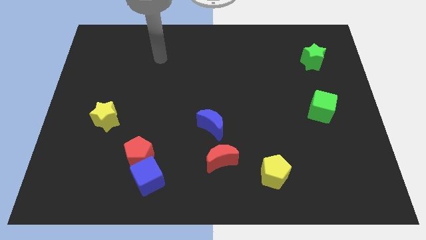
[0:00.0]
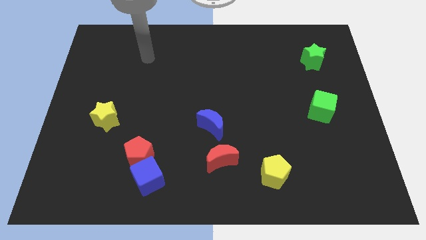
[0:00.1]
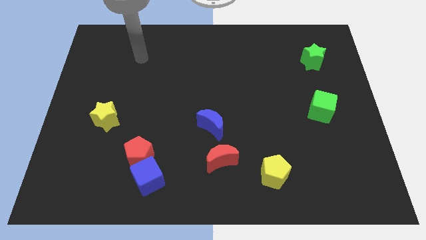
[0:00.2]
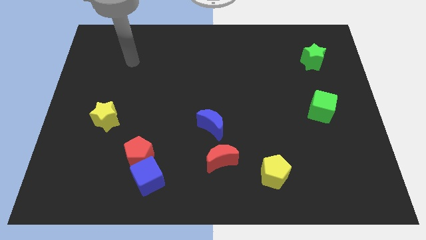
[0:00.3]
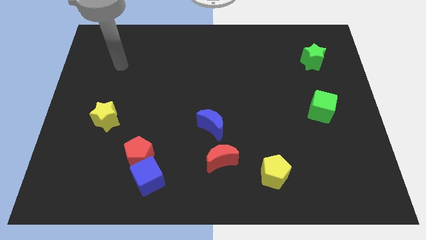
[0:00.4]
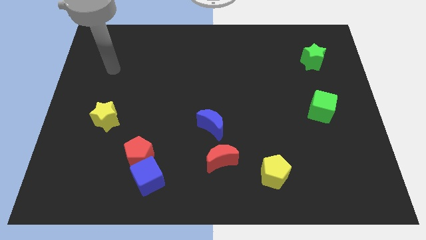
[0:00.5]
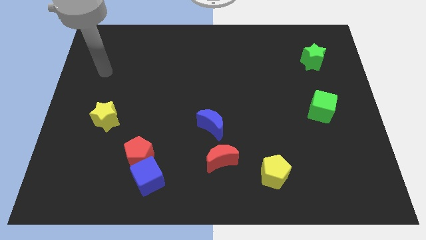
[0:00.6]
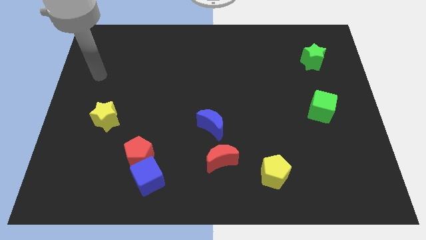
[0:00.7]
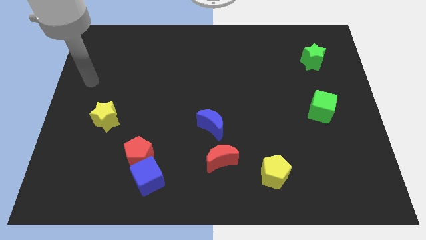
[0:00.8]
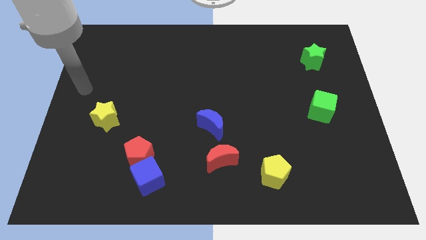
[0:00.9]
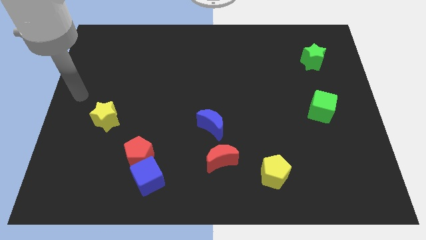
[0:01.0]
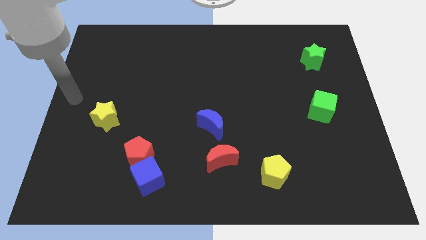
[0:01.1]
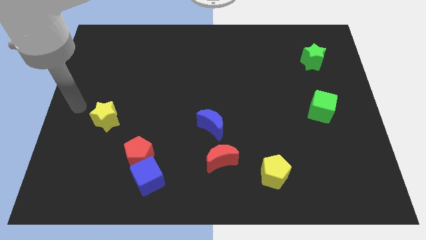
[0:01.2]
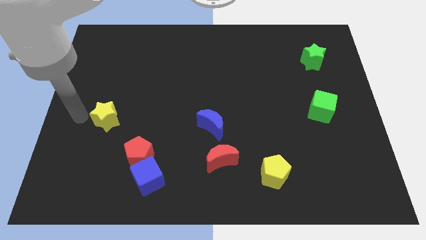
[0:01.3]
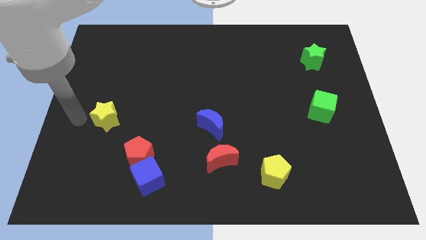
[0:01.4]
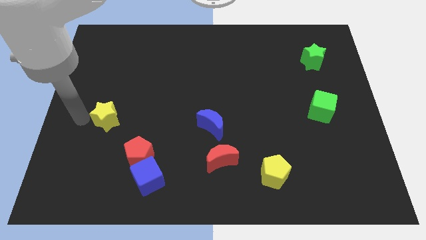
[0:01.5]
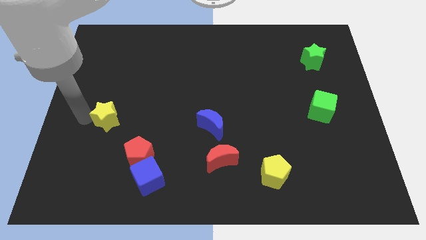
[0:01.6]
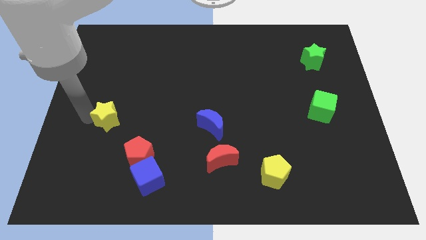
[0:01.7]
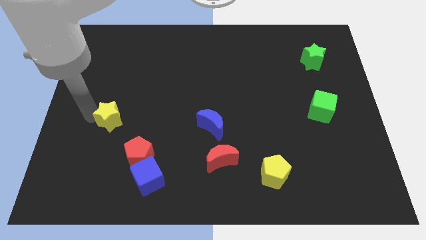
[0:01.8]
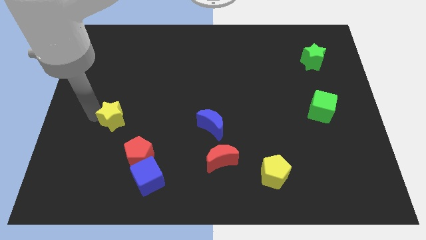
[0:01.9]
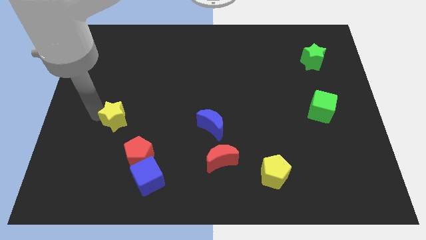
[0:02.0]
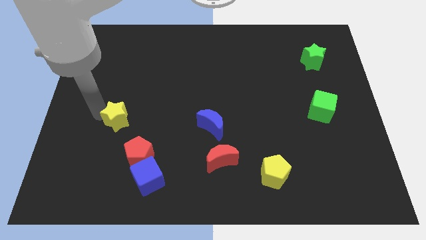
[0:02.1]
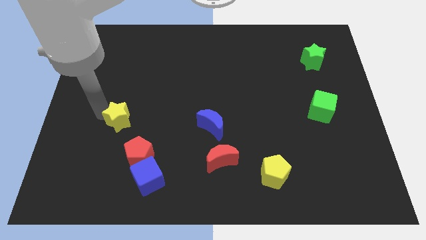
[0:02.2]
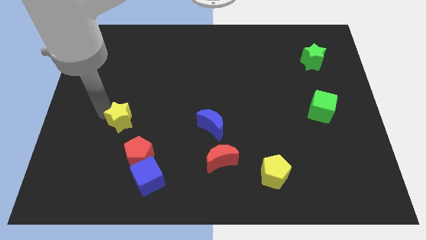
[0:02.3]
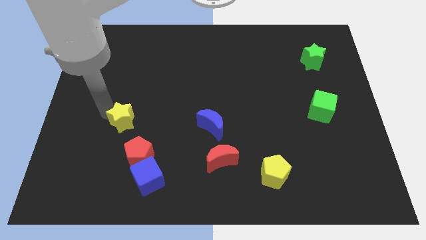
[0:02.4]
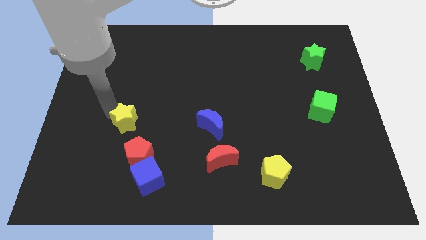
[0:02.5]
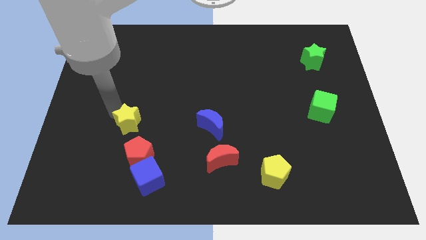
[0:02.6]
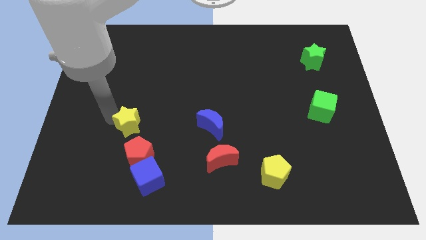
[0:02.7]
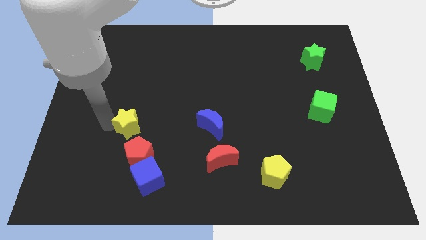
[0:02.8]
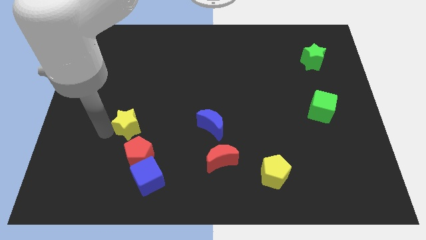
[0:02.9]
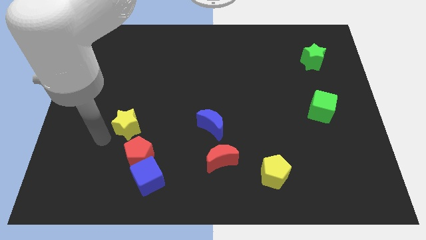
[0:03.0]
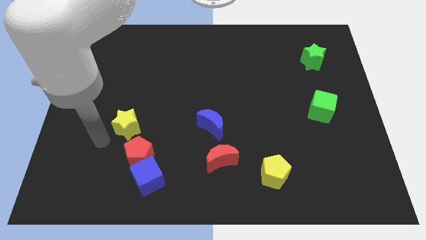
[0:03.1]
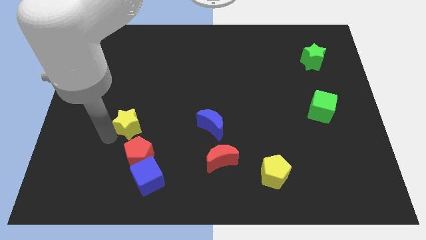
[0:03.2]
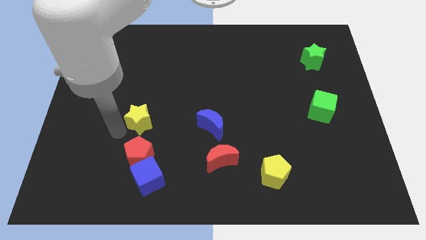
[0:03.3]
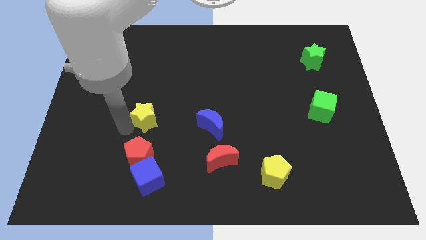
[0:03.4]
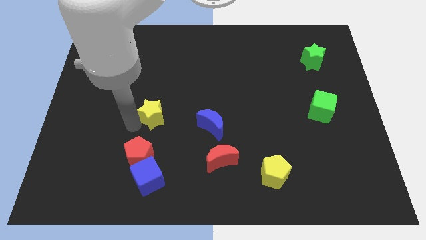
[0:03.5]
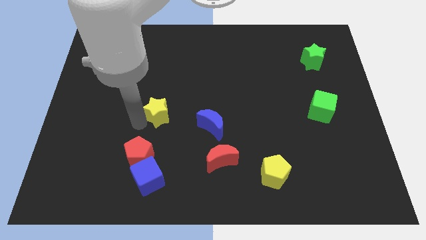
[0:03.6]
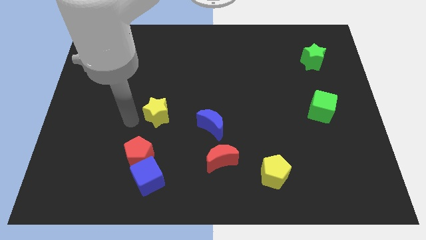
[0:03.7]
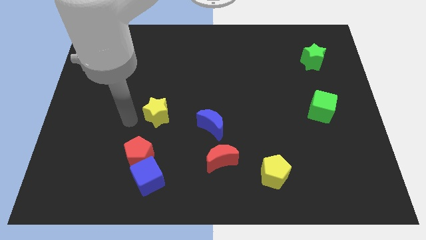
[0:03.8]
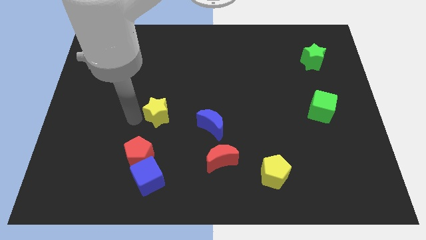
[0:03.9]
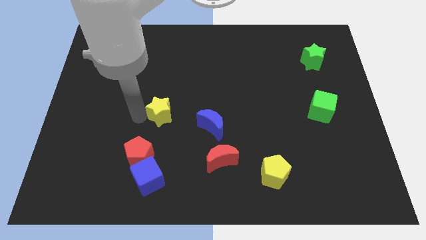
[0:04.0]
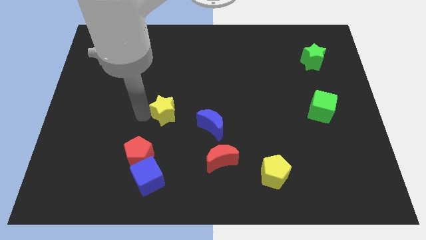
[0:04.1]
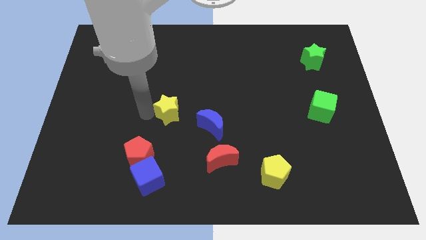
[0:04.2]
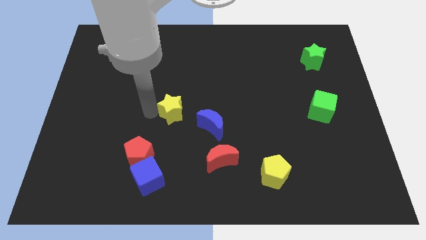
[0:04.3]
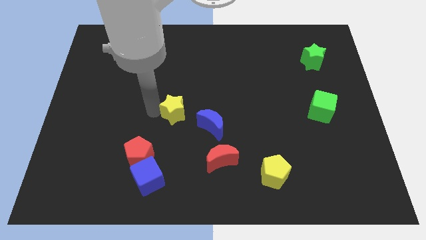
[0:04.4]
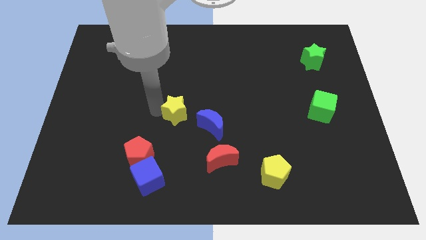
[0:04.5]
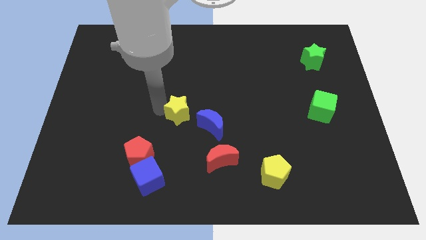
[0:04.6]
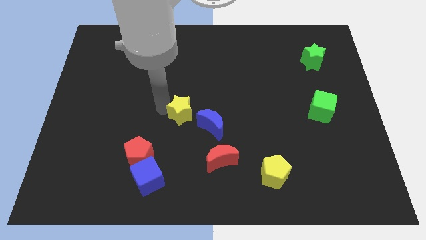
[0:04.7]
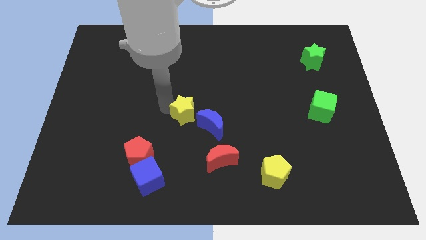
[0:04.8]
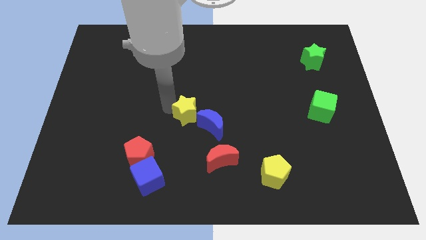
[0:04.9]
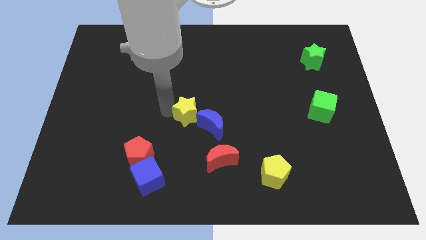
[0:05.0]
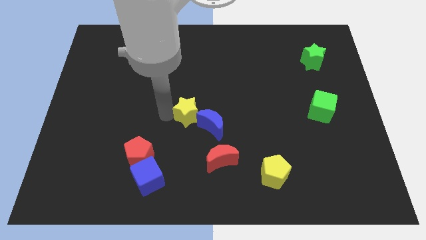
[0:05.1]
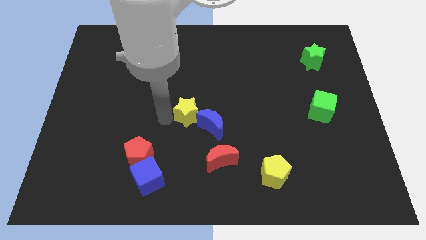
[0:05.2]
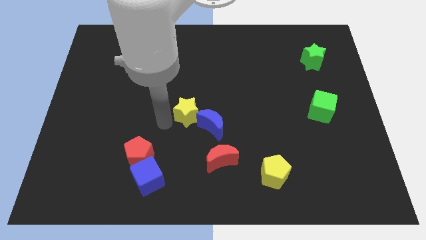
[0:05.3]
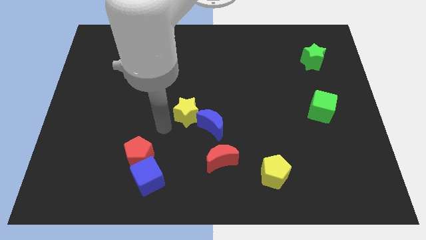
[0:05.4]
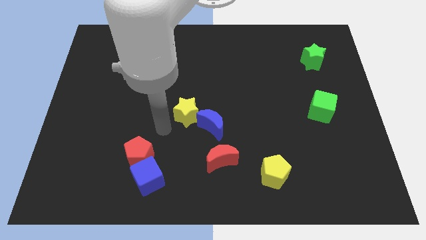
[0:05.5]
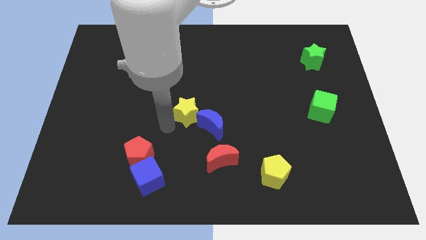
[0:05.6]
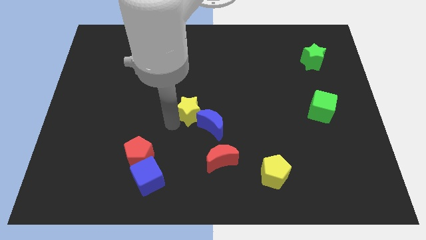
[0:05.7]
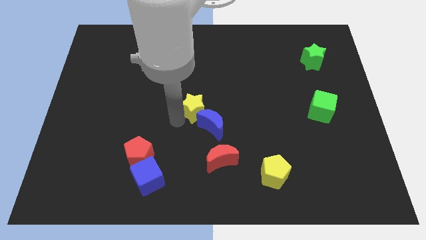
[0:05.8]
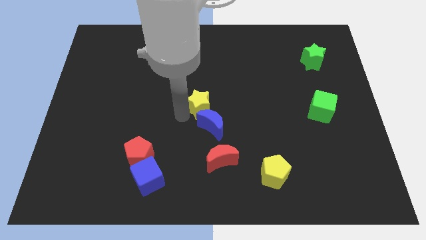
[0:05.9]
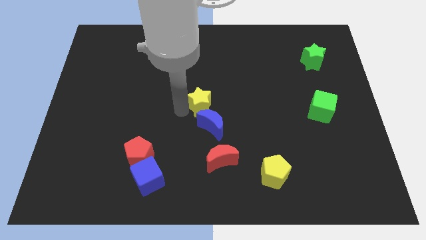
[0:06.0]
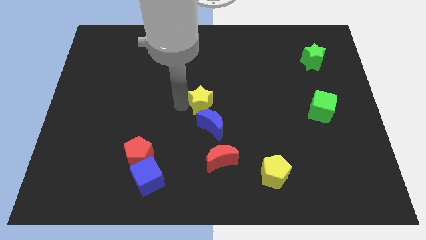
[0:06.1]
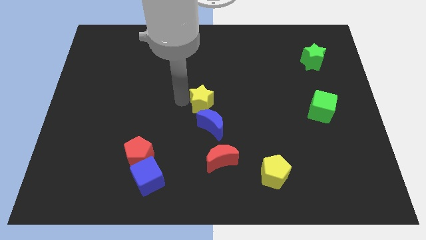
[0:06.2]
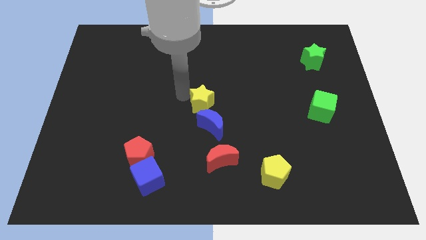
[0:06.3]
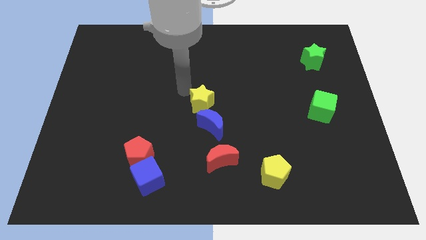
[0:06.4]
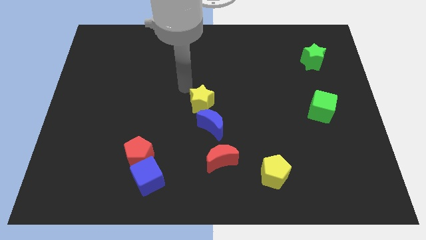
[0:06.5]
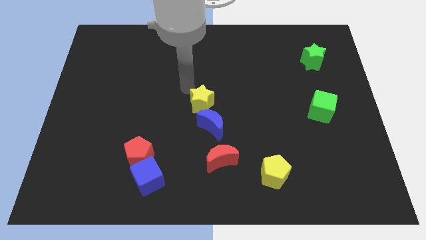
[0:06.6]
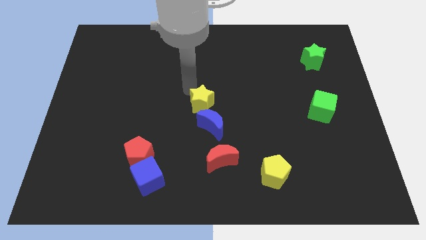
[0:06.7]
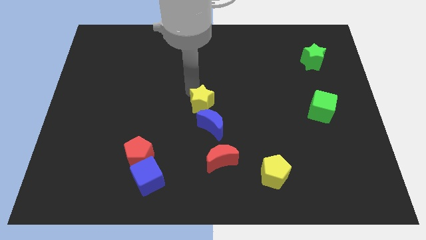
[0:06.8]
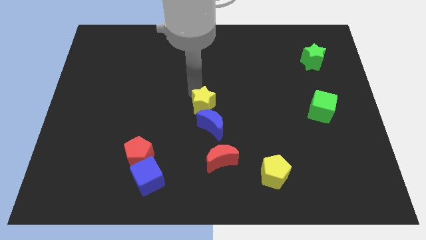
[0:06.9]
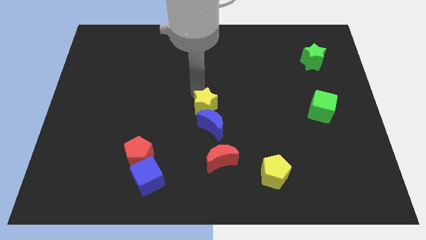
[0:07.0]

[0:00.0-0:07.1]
slide the yellow star above the red moon
